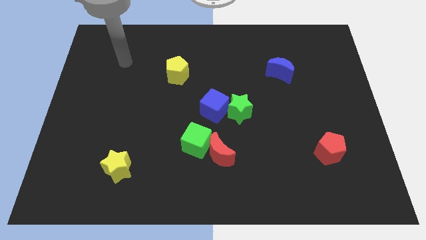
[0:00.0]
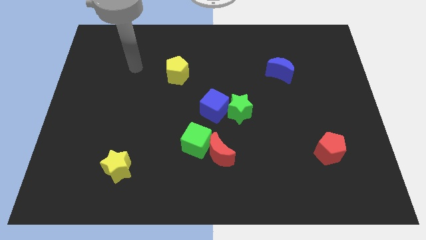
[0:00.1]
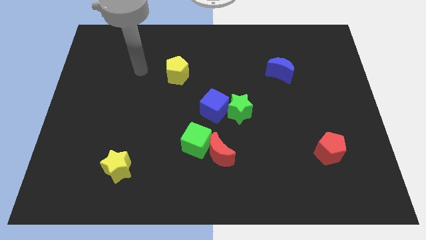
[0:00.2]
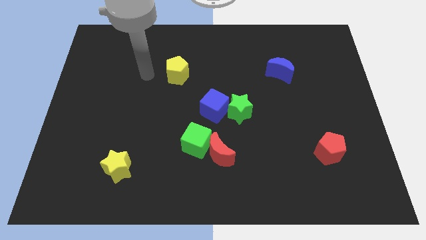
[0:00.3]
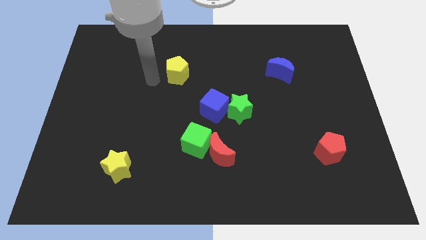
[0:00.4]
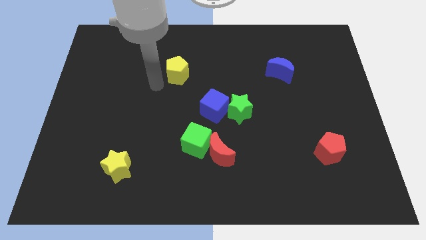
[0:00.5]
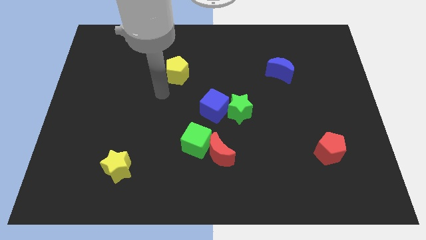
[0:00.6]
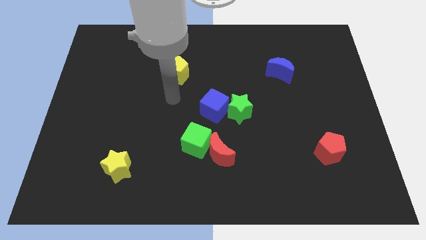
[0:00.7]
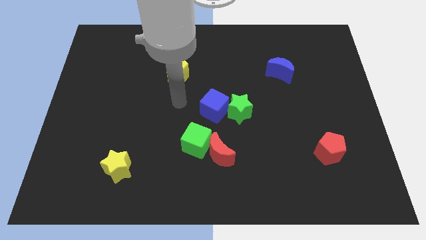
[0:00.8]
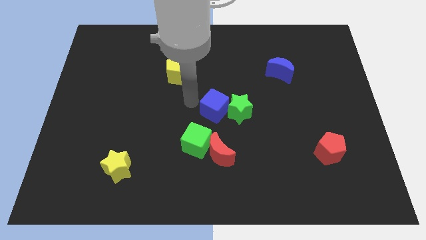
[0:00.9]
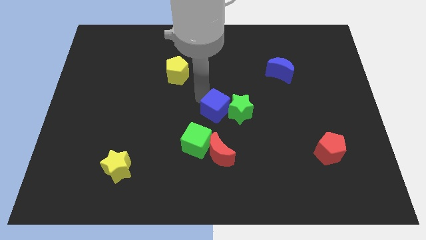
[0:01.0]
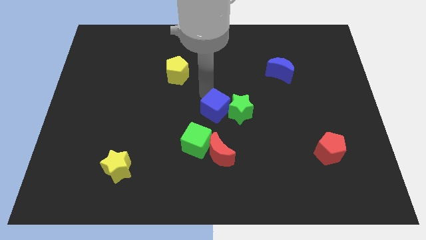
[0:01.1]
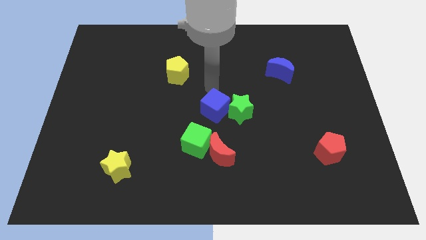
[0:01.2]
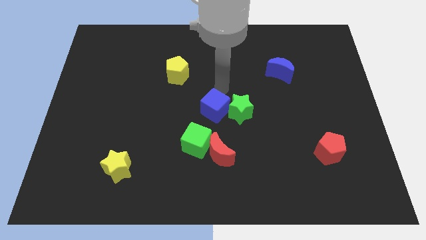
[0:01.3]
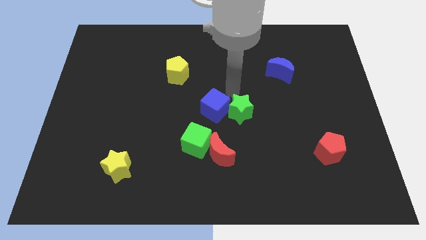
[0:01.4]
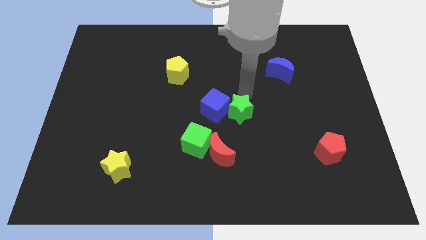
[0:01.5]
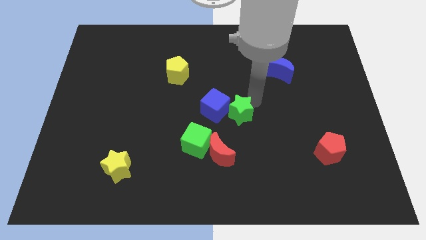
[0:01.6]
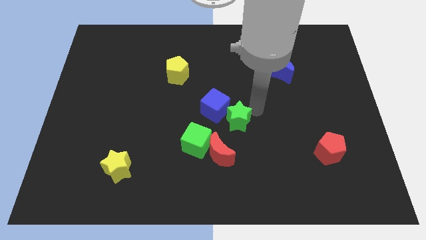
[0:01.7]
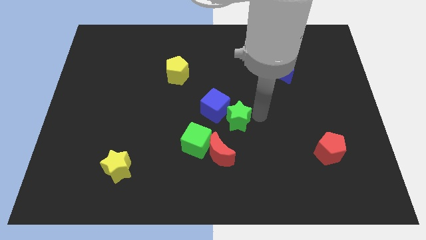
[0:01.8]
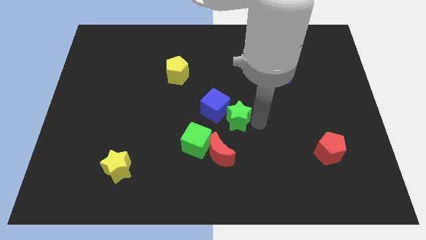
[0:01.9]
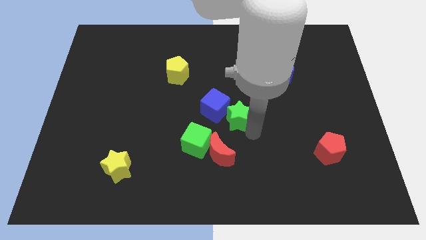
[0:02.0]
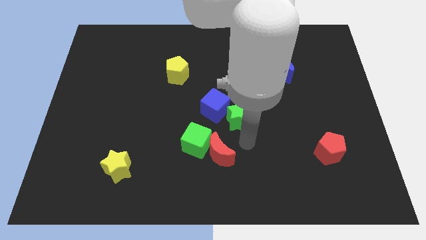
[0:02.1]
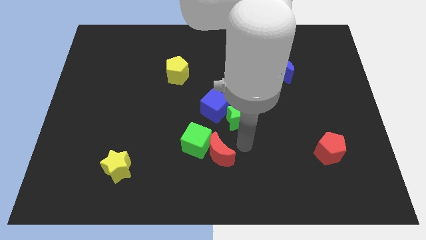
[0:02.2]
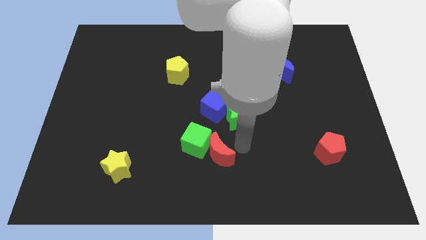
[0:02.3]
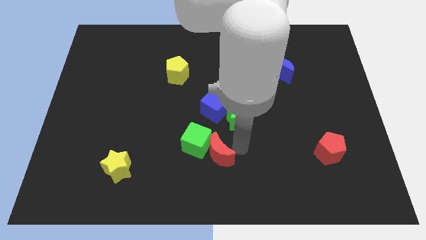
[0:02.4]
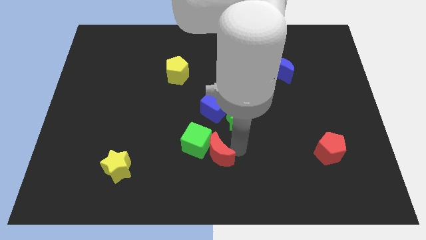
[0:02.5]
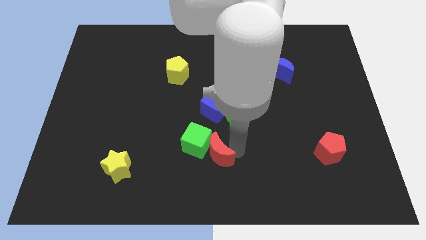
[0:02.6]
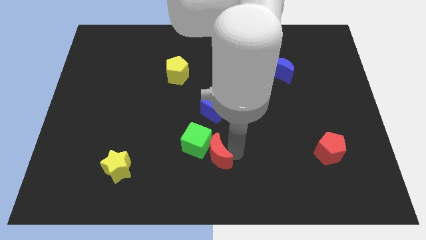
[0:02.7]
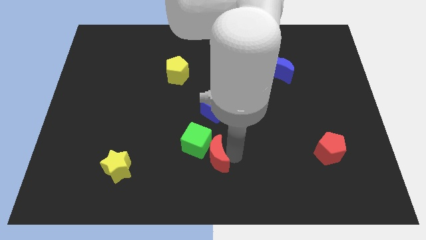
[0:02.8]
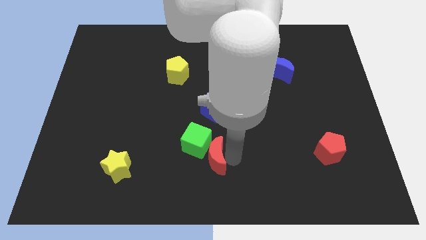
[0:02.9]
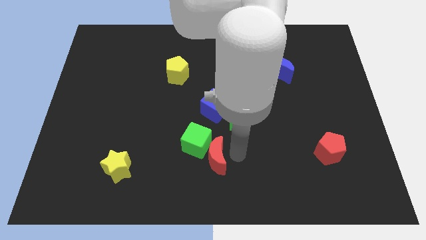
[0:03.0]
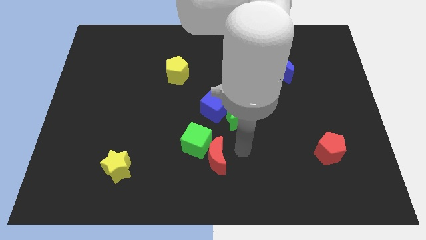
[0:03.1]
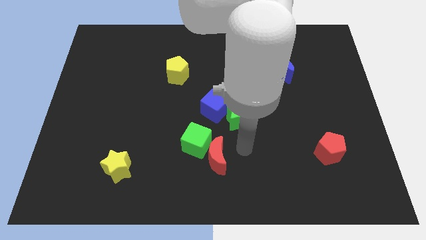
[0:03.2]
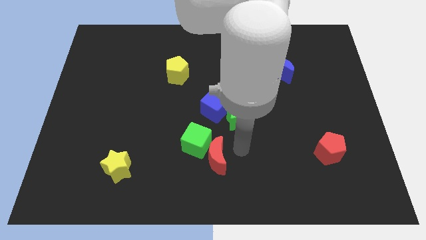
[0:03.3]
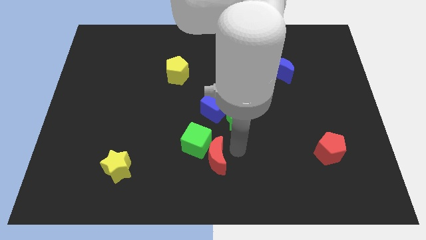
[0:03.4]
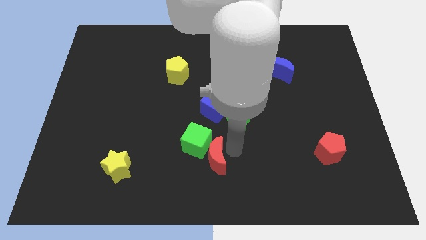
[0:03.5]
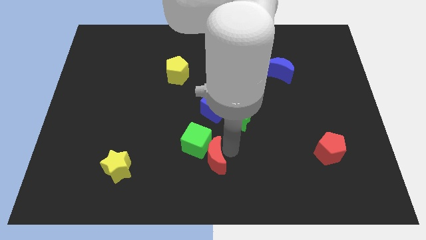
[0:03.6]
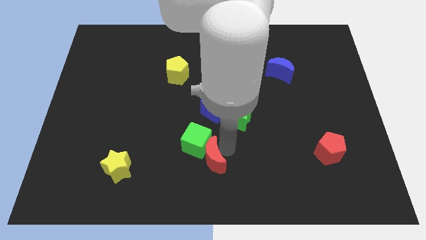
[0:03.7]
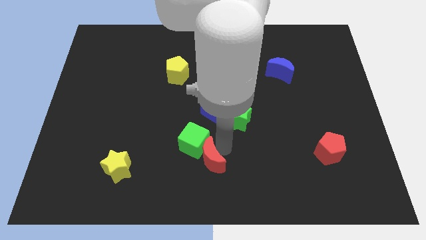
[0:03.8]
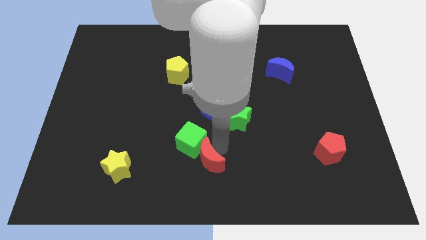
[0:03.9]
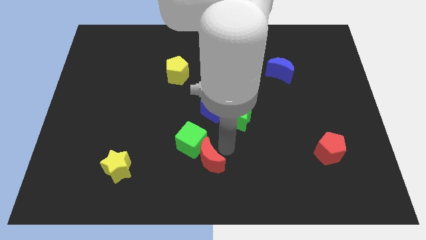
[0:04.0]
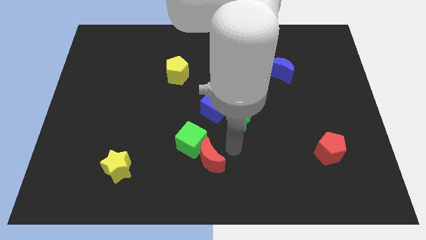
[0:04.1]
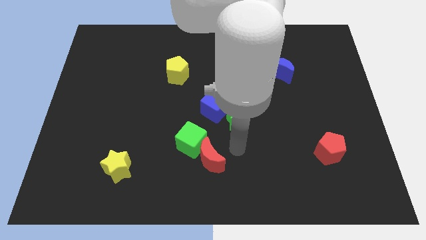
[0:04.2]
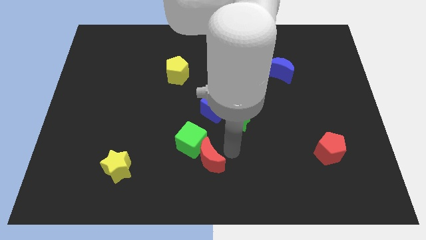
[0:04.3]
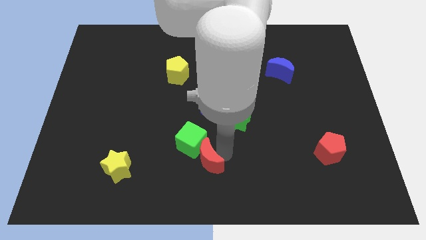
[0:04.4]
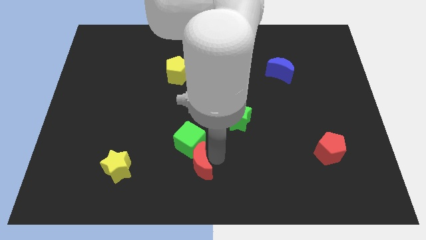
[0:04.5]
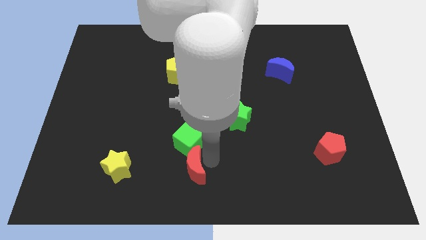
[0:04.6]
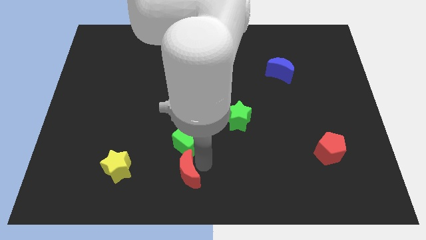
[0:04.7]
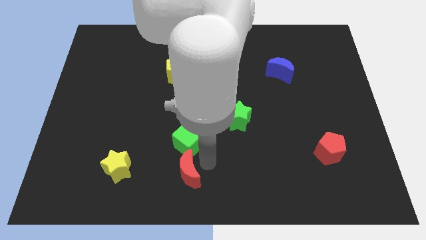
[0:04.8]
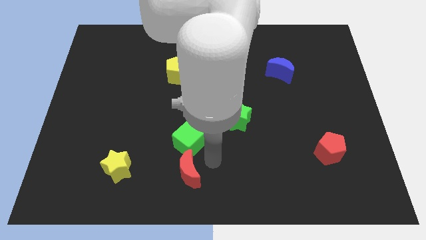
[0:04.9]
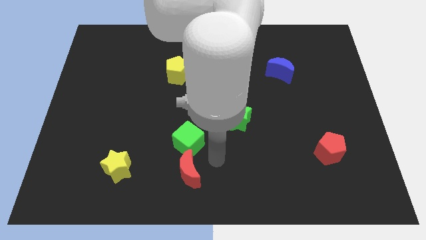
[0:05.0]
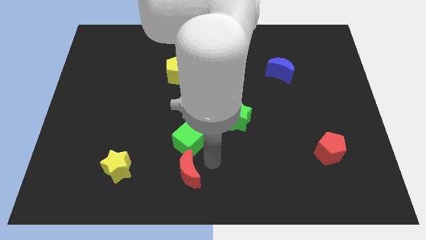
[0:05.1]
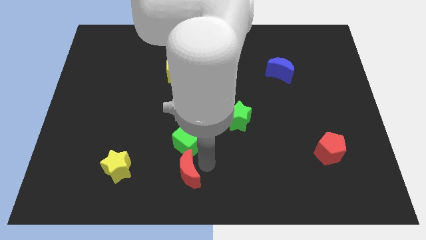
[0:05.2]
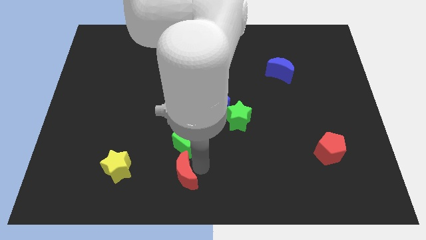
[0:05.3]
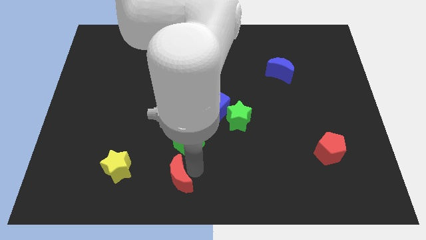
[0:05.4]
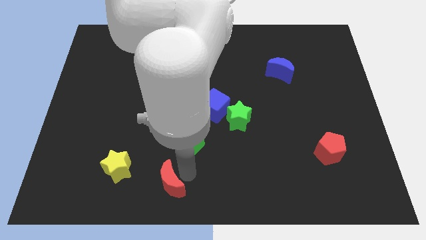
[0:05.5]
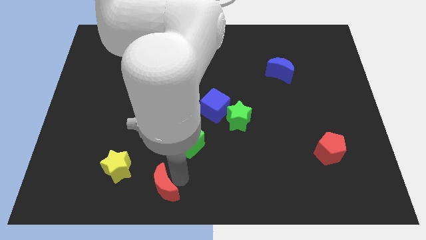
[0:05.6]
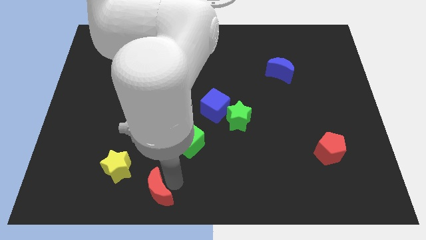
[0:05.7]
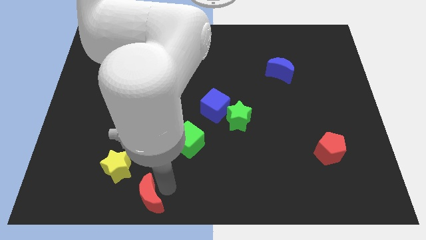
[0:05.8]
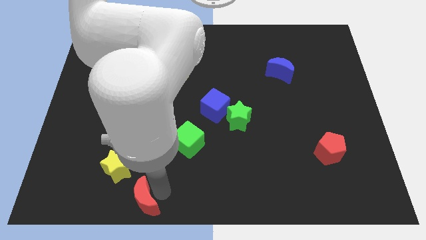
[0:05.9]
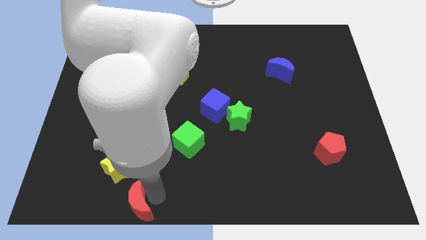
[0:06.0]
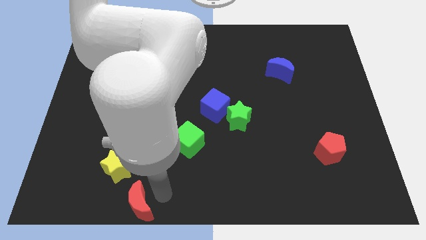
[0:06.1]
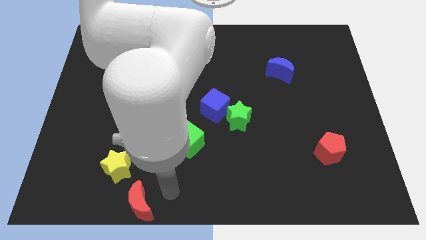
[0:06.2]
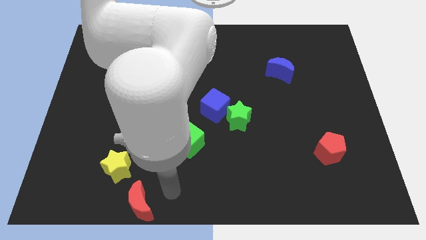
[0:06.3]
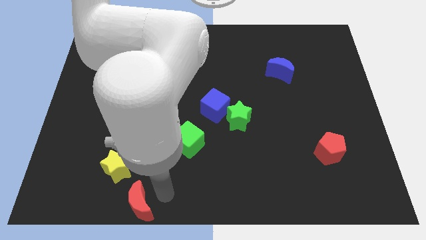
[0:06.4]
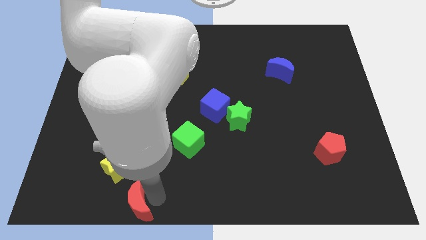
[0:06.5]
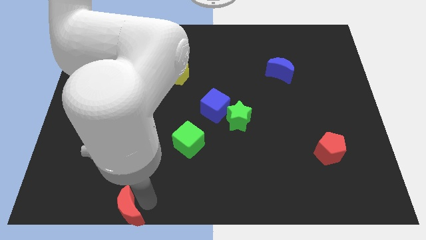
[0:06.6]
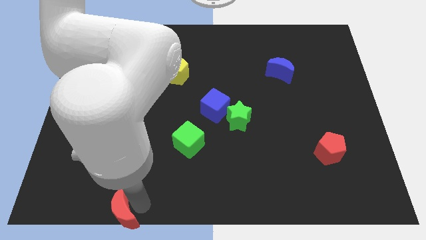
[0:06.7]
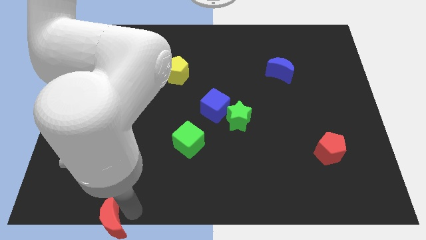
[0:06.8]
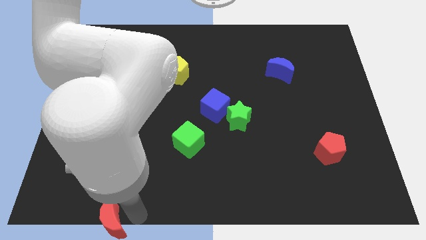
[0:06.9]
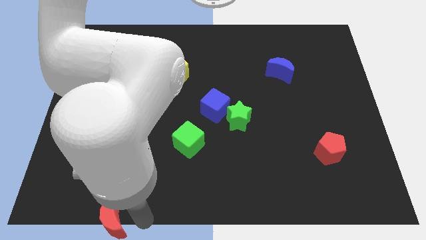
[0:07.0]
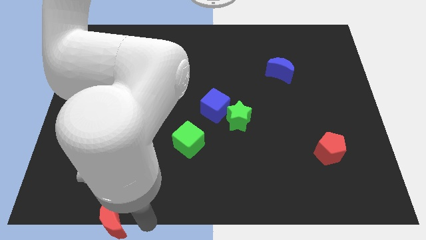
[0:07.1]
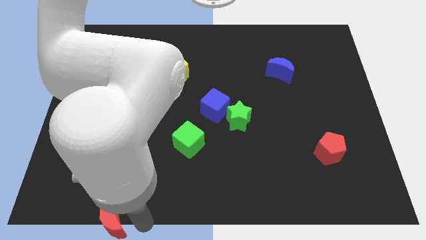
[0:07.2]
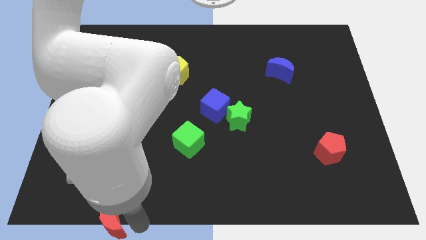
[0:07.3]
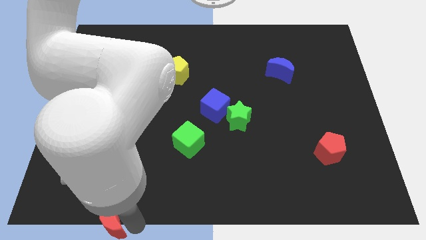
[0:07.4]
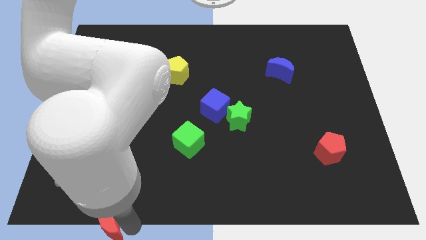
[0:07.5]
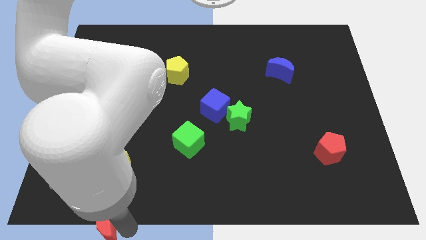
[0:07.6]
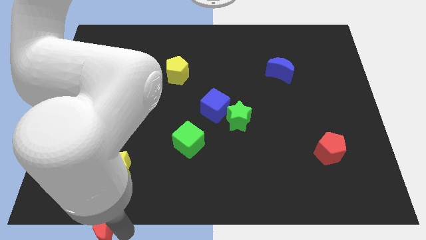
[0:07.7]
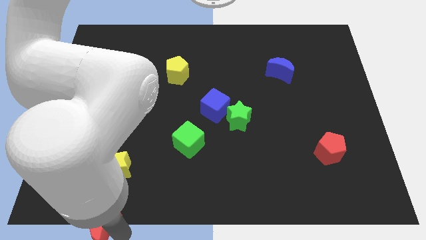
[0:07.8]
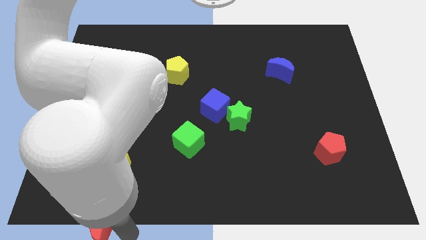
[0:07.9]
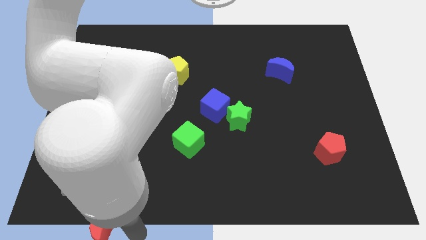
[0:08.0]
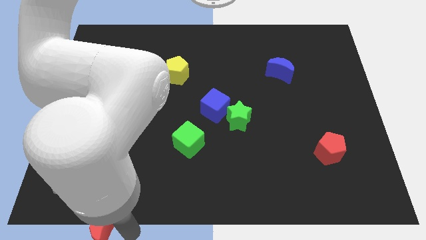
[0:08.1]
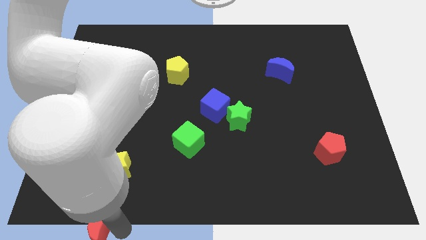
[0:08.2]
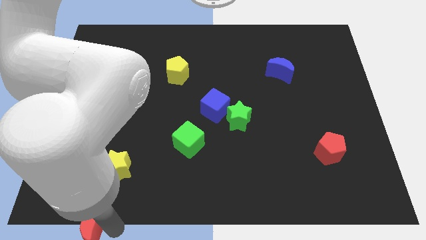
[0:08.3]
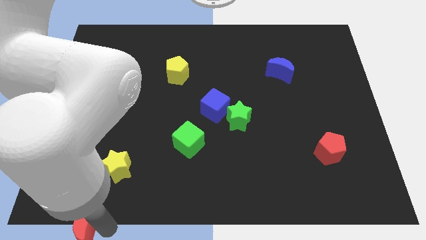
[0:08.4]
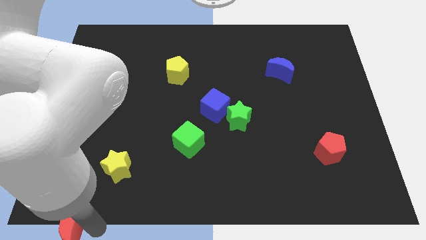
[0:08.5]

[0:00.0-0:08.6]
move the red moon to the bottom left corner
